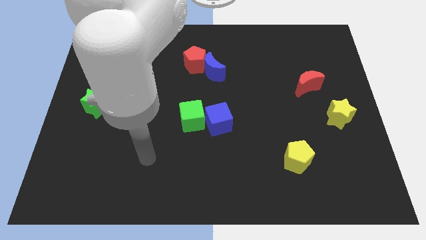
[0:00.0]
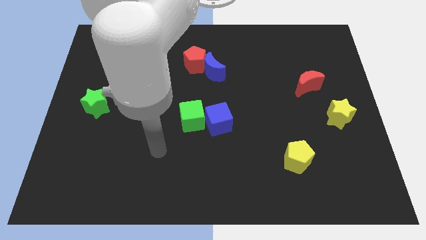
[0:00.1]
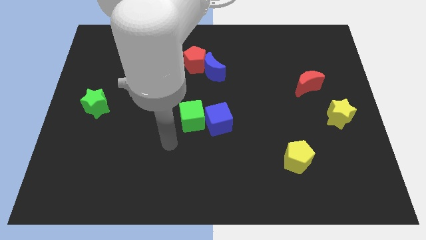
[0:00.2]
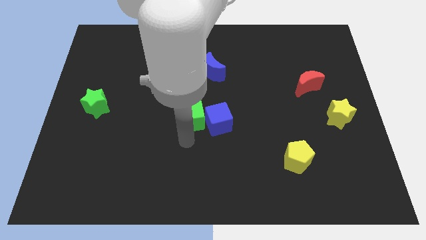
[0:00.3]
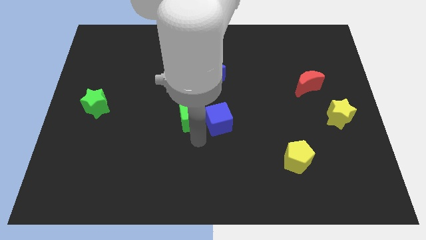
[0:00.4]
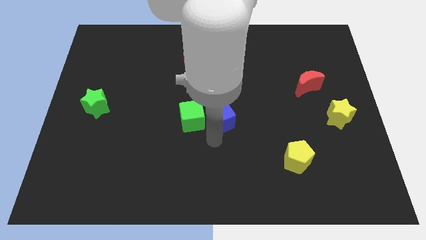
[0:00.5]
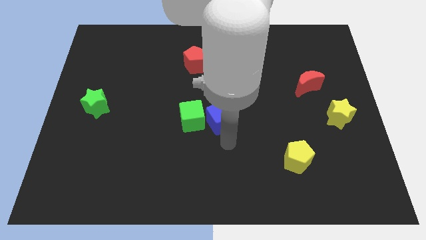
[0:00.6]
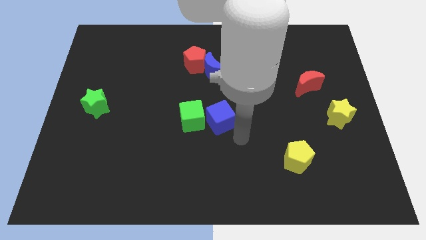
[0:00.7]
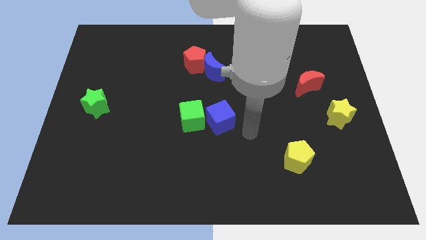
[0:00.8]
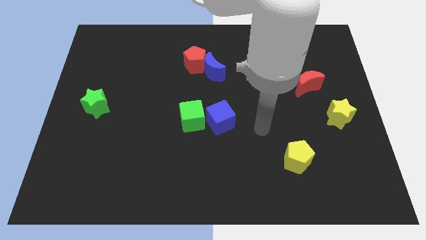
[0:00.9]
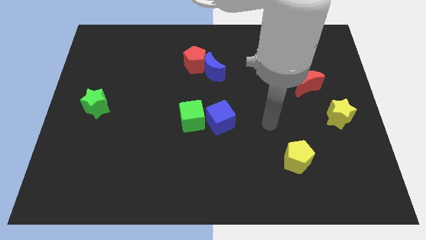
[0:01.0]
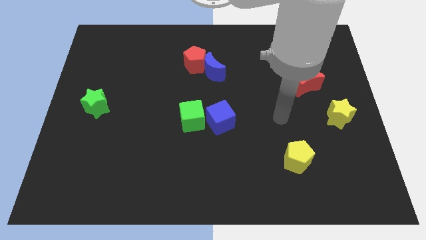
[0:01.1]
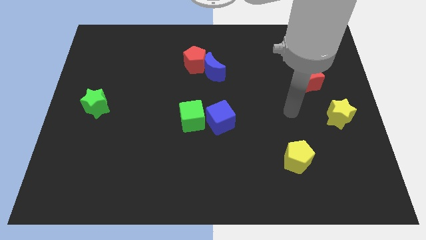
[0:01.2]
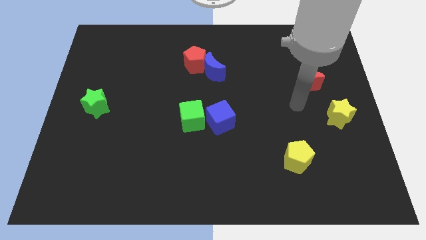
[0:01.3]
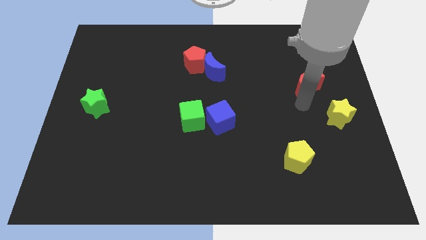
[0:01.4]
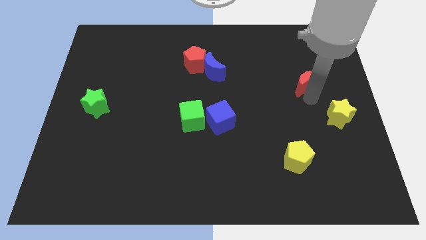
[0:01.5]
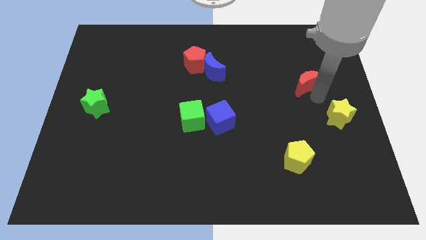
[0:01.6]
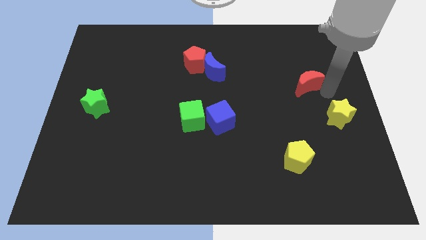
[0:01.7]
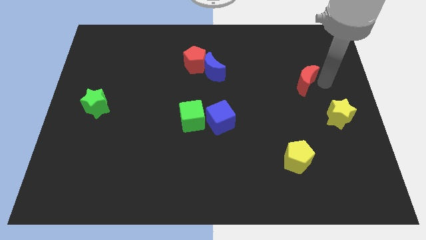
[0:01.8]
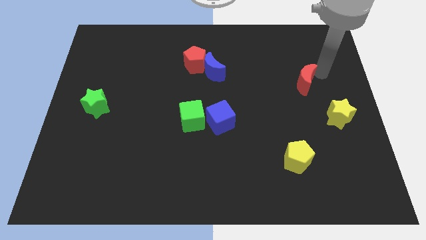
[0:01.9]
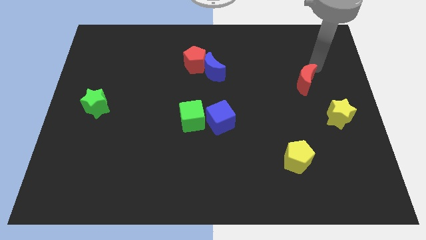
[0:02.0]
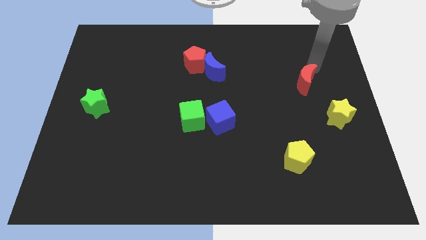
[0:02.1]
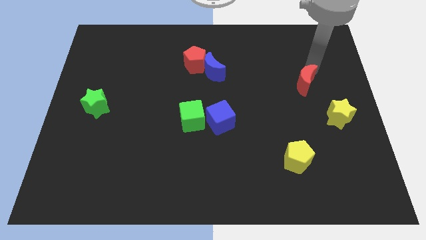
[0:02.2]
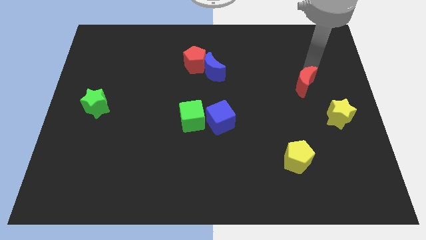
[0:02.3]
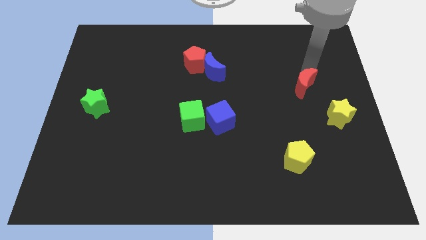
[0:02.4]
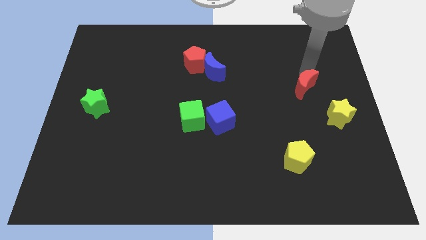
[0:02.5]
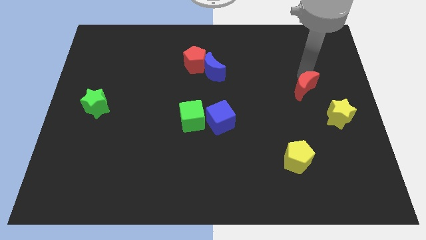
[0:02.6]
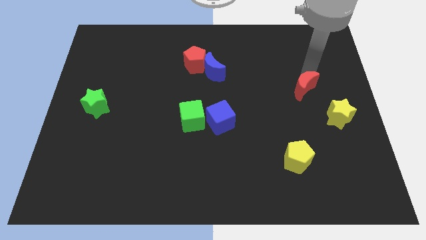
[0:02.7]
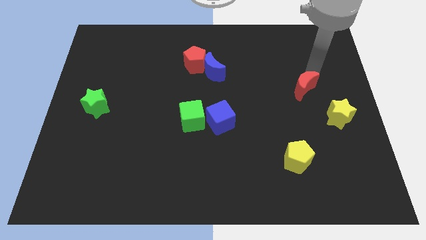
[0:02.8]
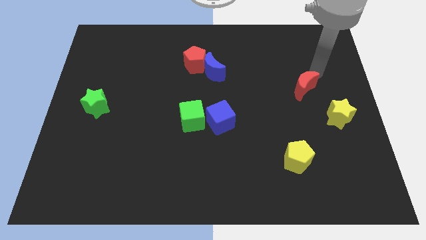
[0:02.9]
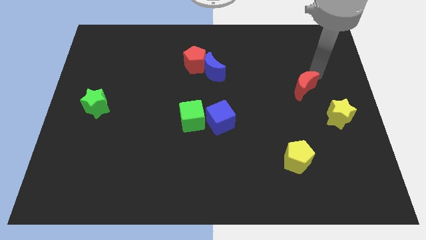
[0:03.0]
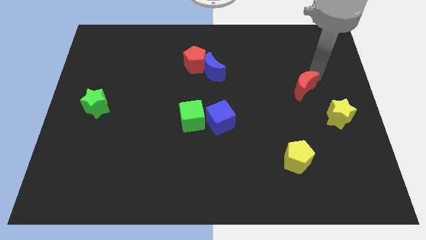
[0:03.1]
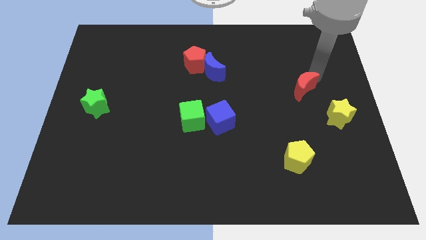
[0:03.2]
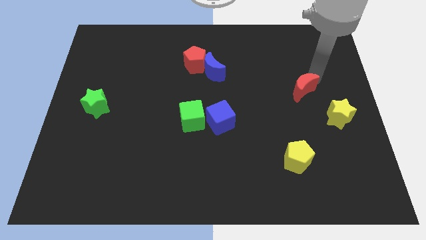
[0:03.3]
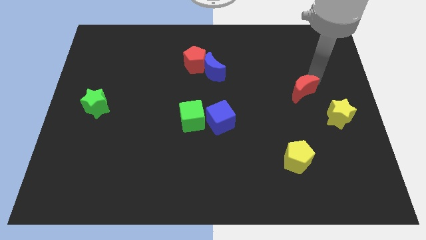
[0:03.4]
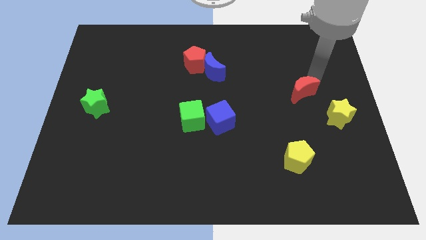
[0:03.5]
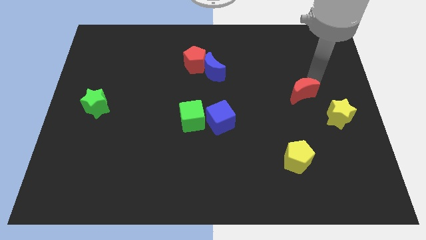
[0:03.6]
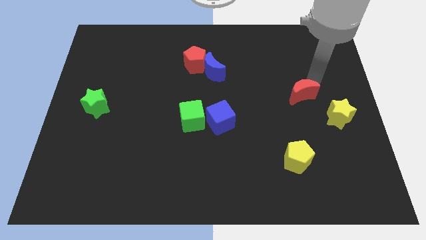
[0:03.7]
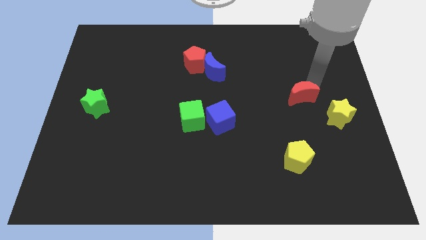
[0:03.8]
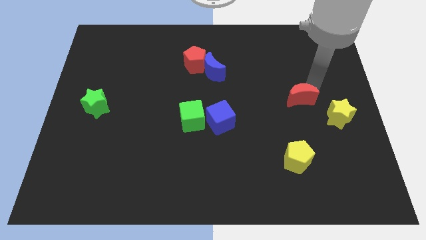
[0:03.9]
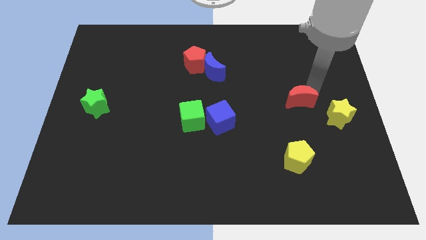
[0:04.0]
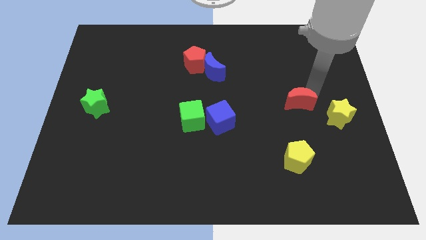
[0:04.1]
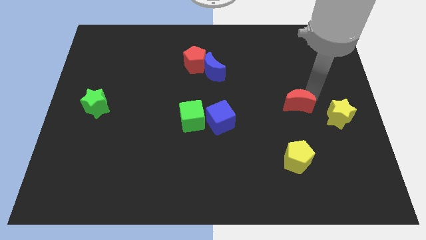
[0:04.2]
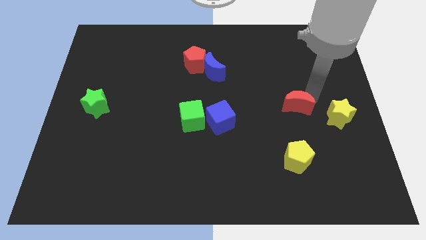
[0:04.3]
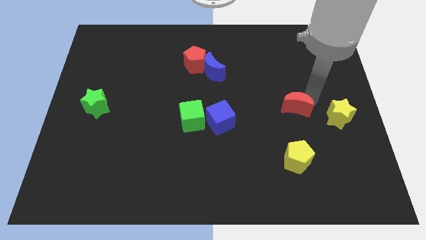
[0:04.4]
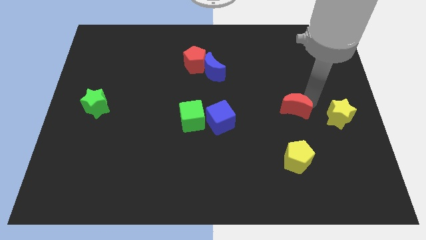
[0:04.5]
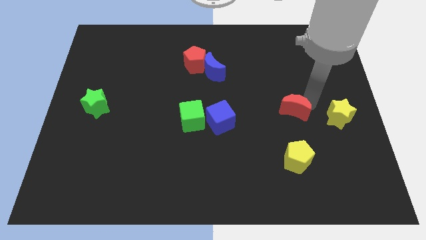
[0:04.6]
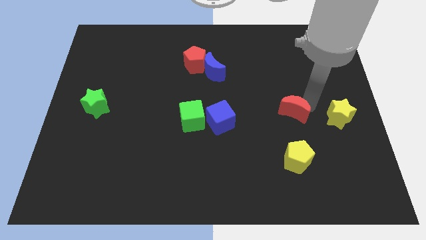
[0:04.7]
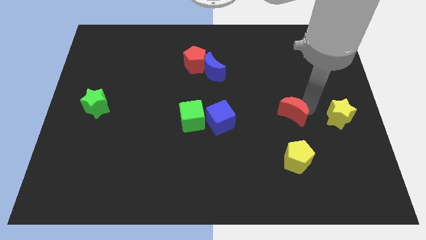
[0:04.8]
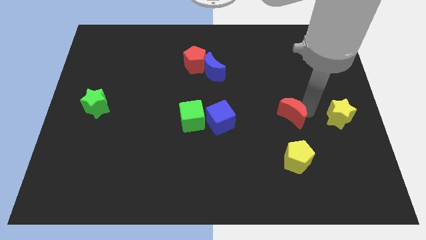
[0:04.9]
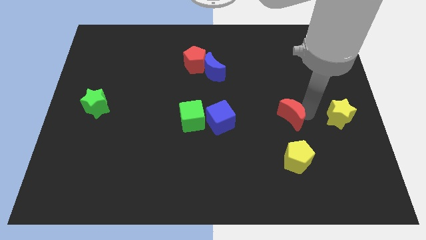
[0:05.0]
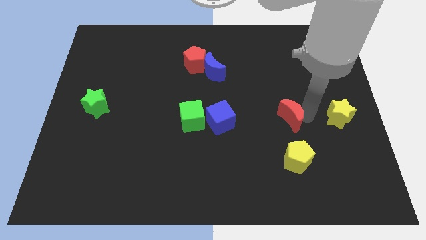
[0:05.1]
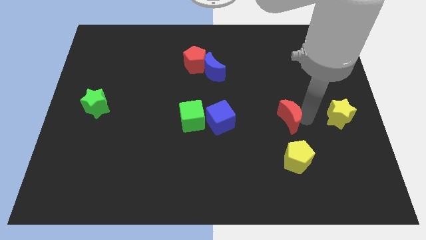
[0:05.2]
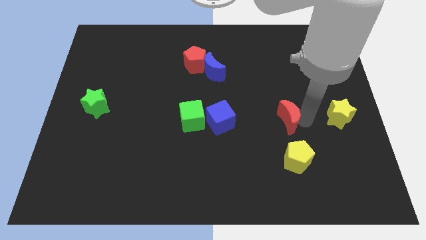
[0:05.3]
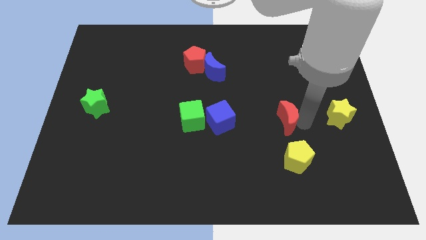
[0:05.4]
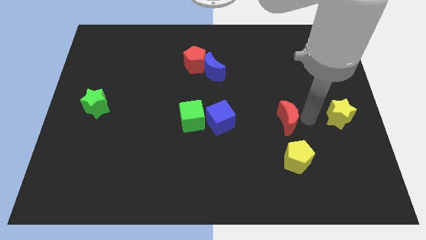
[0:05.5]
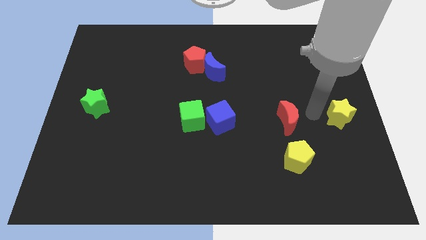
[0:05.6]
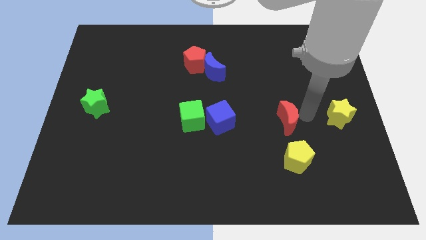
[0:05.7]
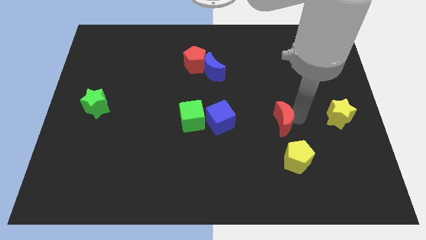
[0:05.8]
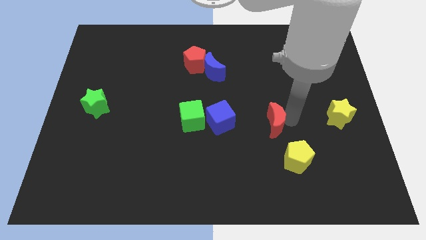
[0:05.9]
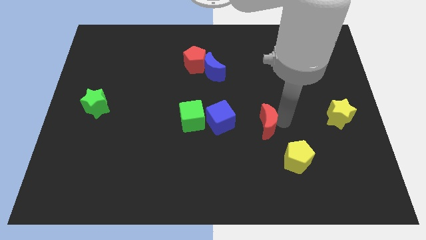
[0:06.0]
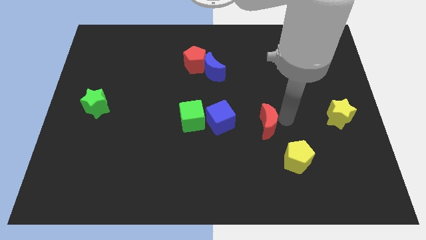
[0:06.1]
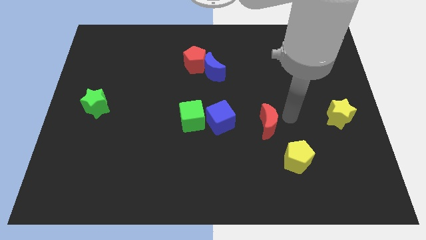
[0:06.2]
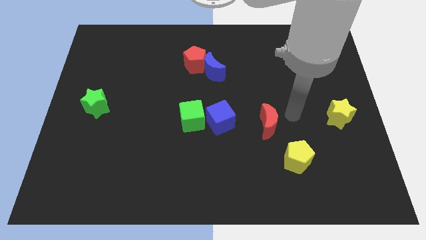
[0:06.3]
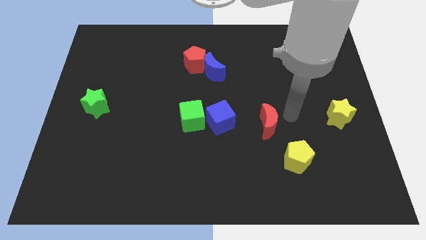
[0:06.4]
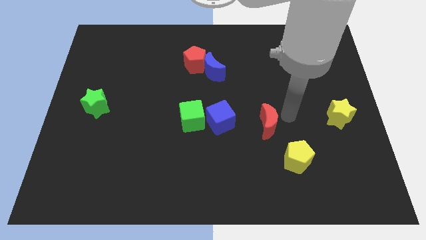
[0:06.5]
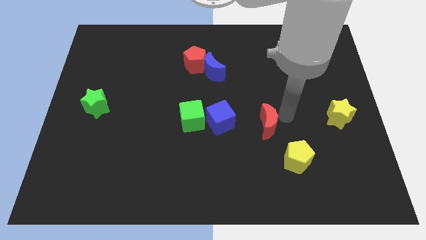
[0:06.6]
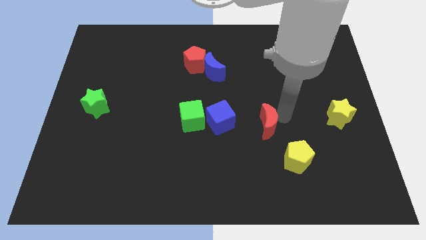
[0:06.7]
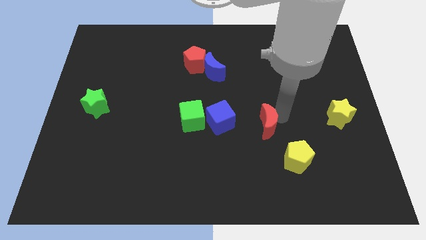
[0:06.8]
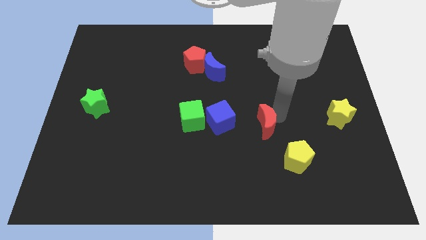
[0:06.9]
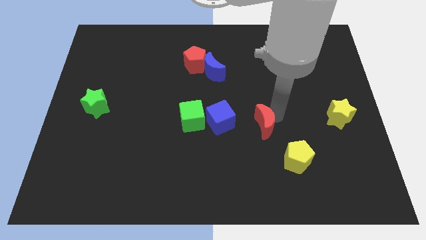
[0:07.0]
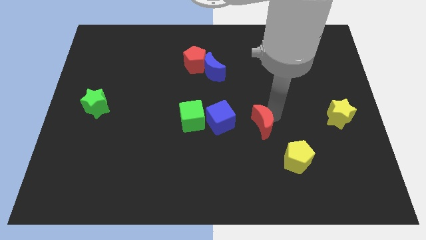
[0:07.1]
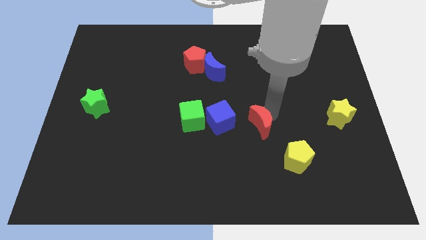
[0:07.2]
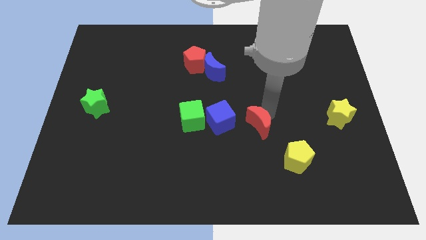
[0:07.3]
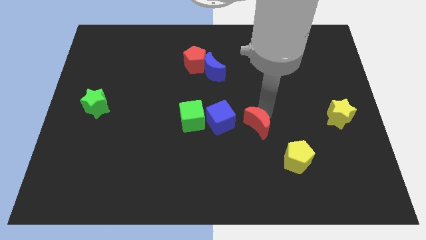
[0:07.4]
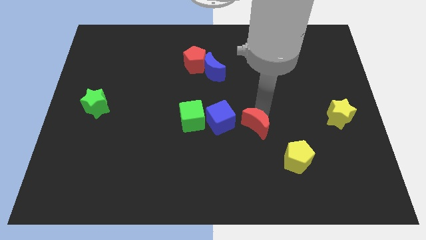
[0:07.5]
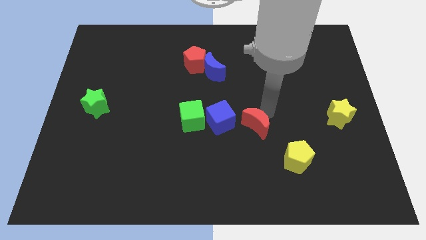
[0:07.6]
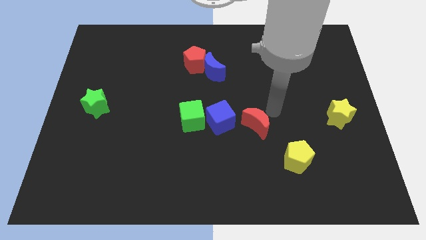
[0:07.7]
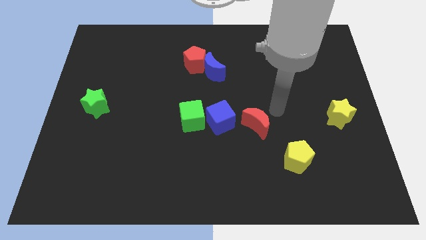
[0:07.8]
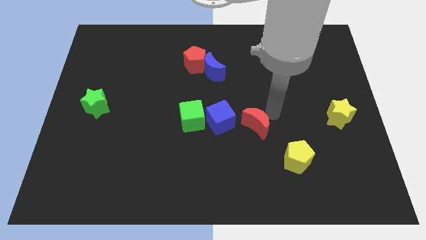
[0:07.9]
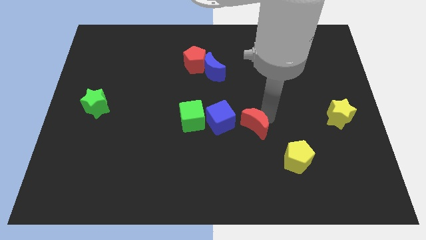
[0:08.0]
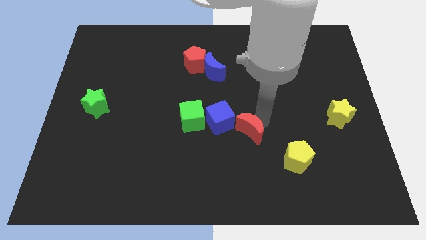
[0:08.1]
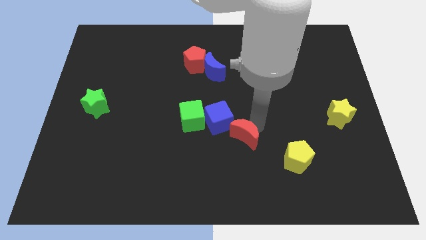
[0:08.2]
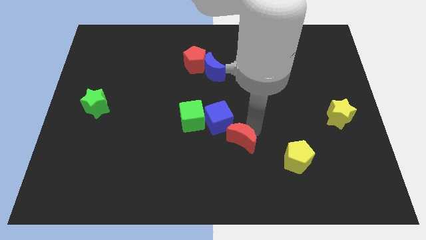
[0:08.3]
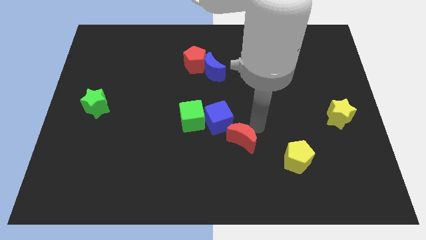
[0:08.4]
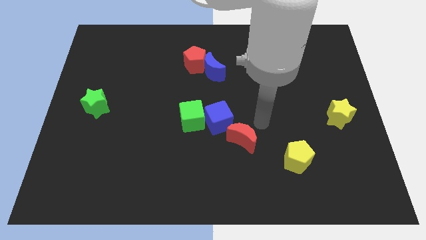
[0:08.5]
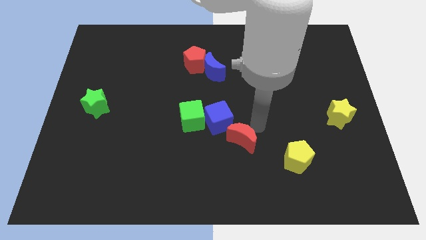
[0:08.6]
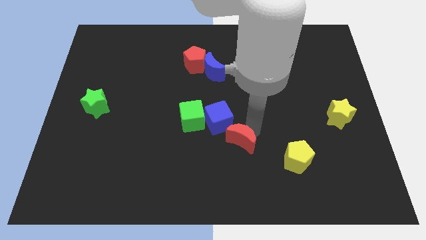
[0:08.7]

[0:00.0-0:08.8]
push the red moon to the bottom side of the blue cube
